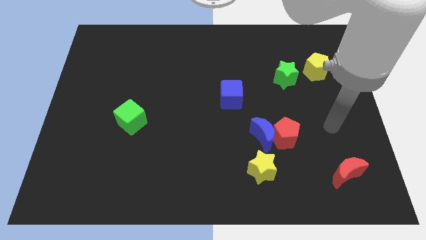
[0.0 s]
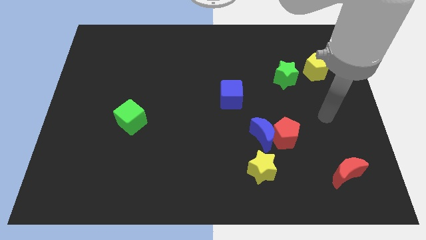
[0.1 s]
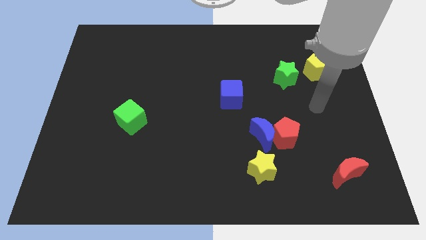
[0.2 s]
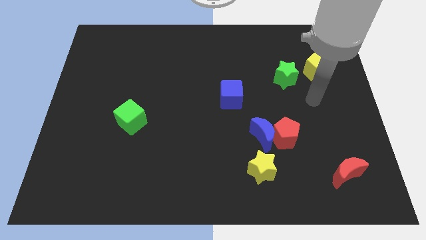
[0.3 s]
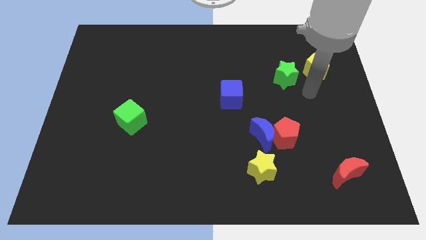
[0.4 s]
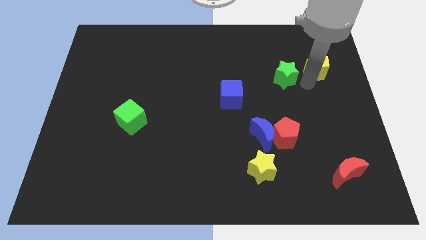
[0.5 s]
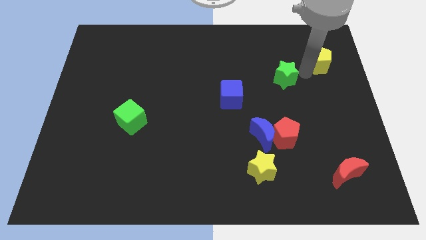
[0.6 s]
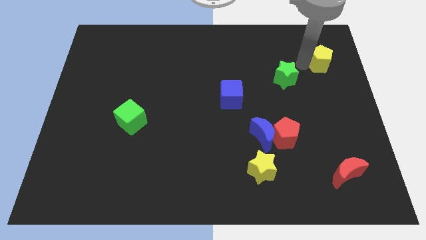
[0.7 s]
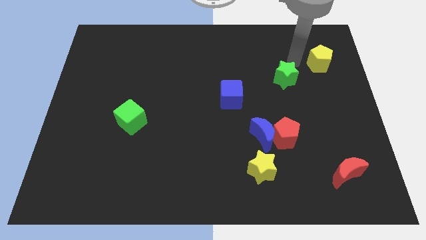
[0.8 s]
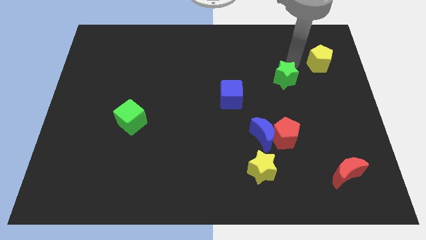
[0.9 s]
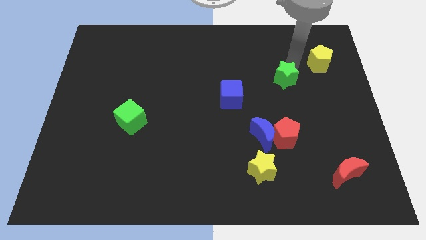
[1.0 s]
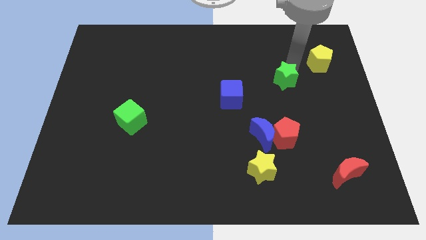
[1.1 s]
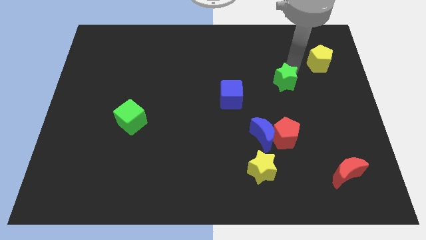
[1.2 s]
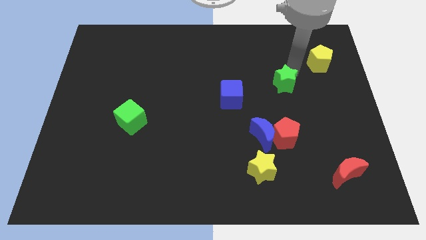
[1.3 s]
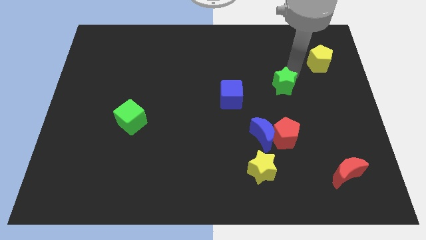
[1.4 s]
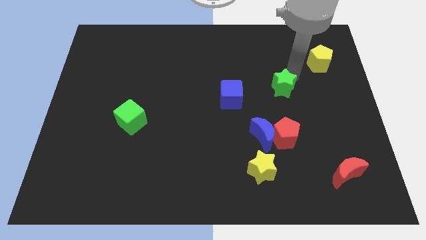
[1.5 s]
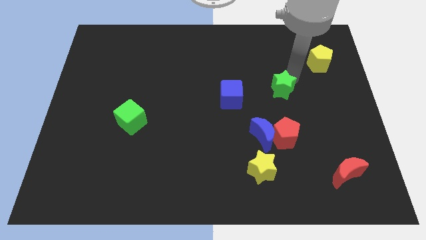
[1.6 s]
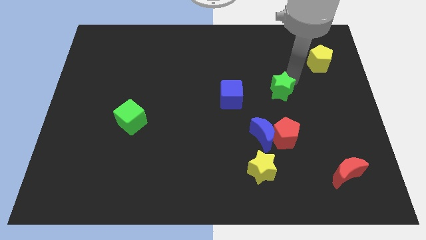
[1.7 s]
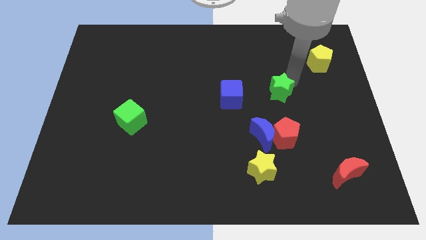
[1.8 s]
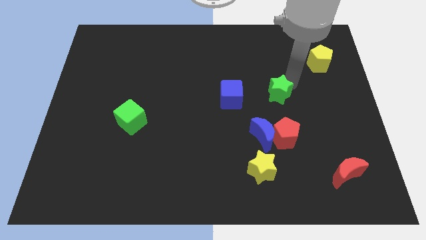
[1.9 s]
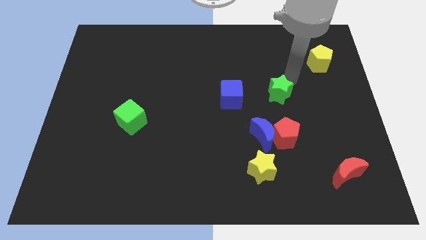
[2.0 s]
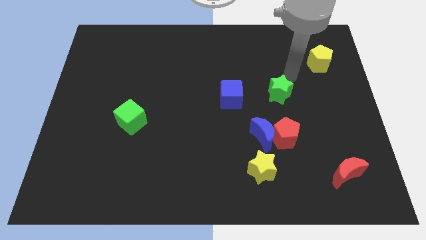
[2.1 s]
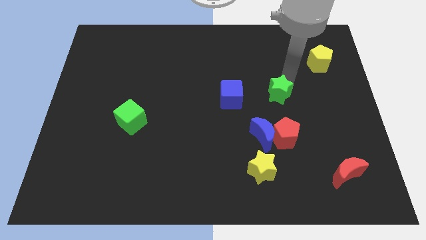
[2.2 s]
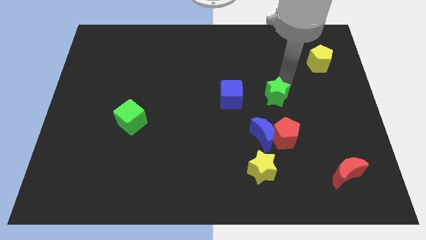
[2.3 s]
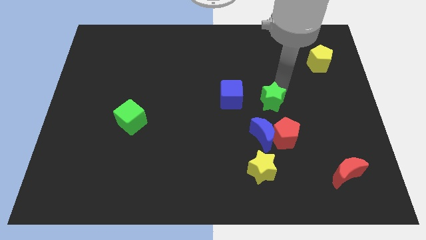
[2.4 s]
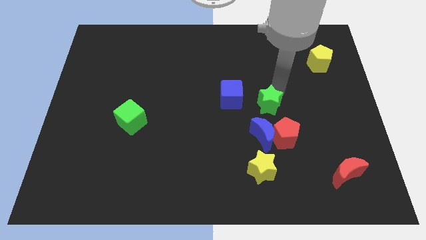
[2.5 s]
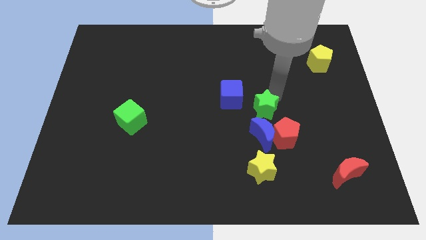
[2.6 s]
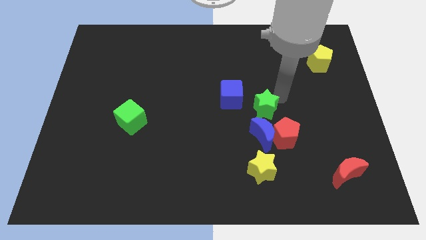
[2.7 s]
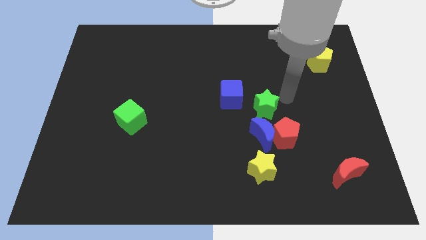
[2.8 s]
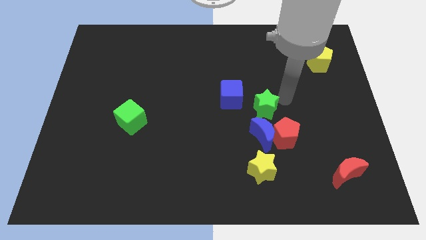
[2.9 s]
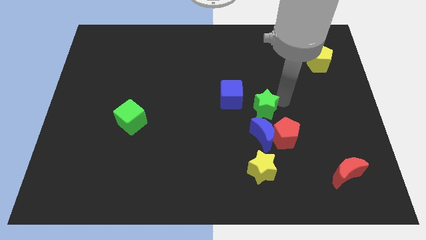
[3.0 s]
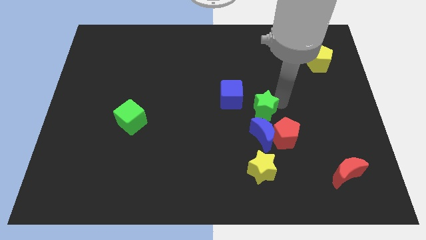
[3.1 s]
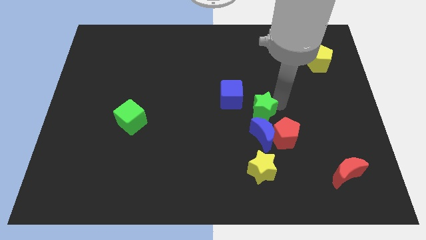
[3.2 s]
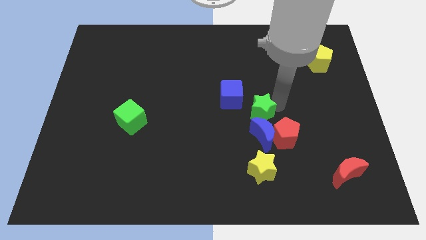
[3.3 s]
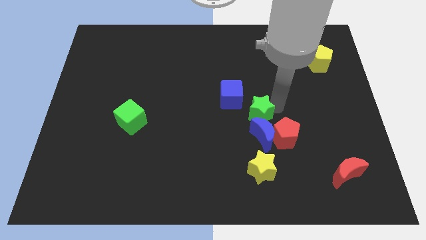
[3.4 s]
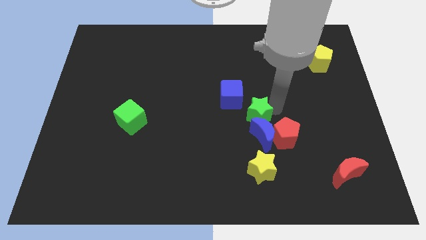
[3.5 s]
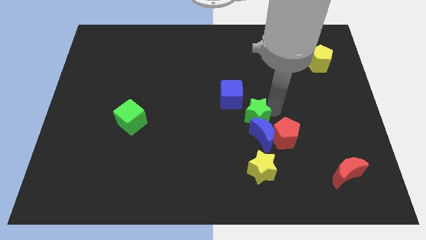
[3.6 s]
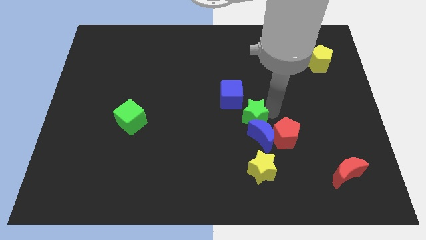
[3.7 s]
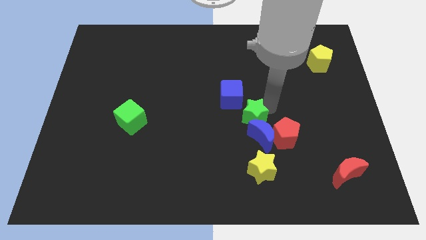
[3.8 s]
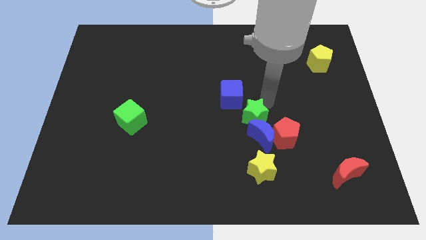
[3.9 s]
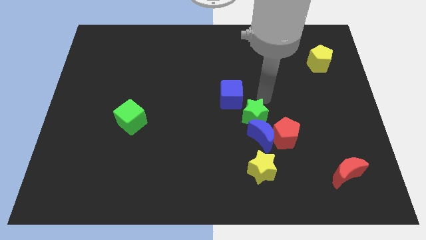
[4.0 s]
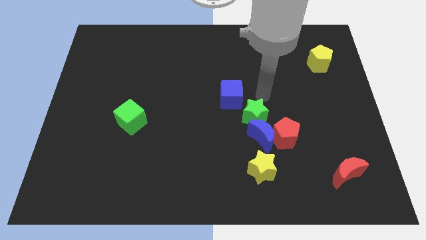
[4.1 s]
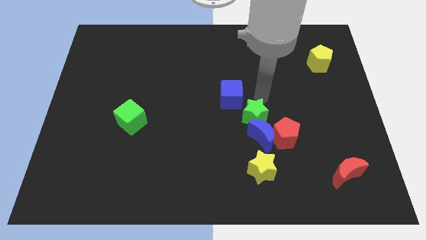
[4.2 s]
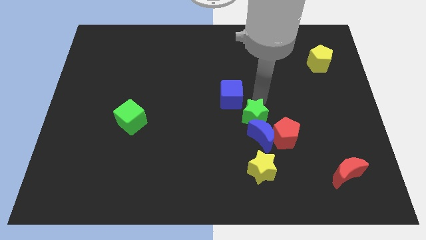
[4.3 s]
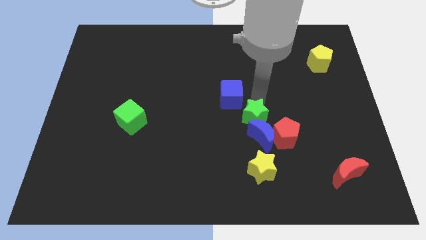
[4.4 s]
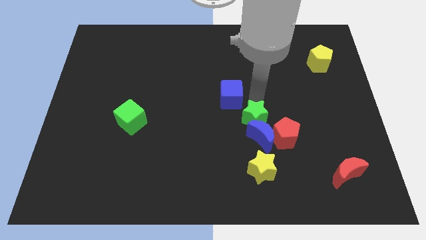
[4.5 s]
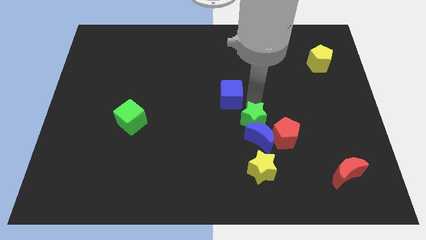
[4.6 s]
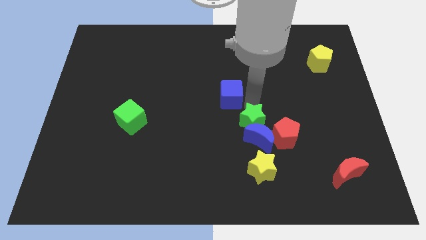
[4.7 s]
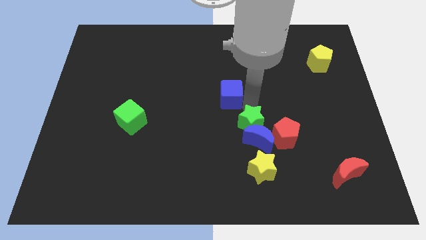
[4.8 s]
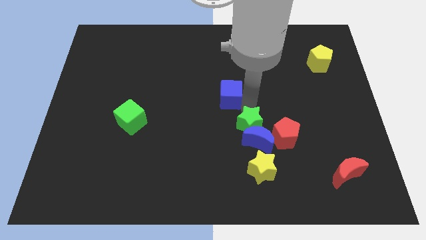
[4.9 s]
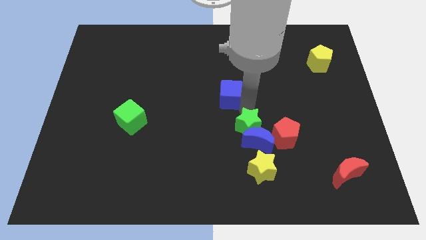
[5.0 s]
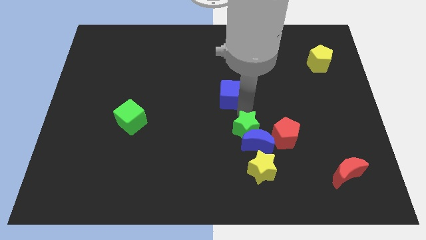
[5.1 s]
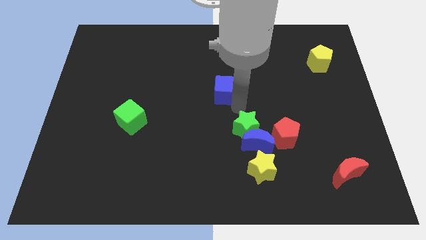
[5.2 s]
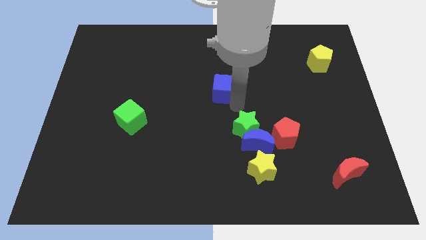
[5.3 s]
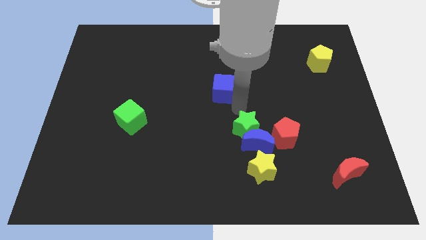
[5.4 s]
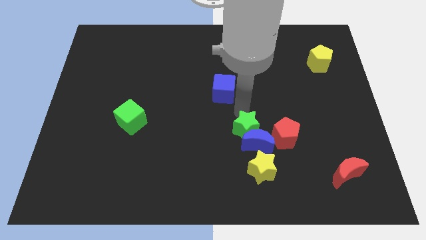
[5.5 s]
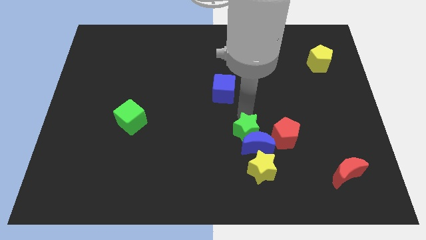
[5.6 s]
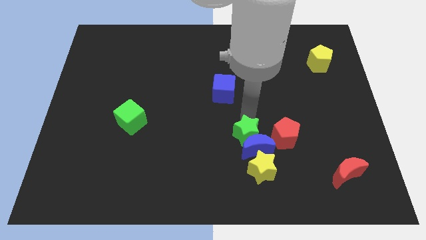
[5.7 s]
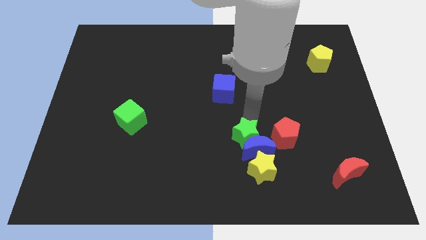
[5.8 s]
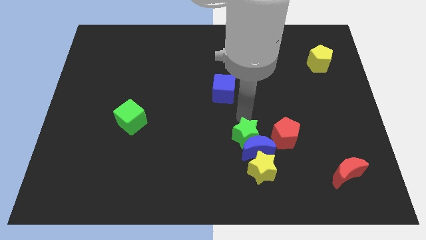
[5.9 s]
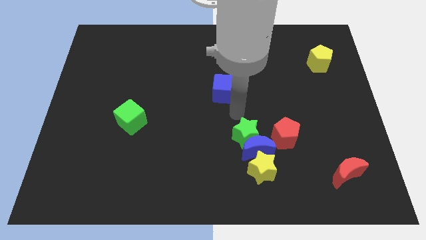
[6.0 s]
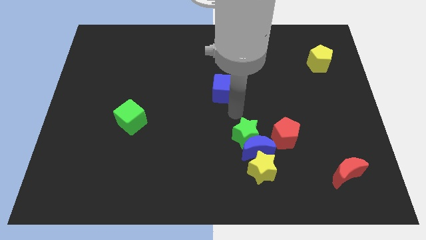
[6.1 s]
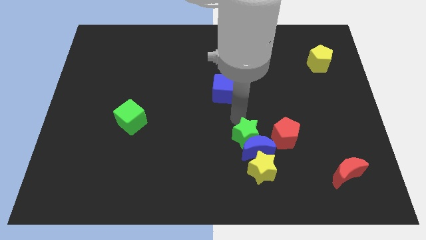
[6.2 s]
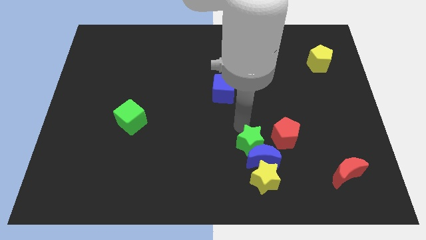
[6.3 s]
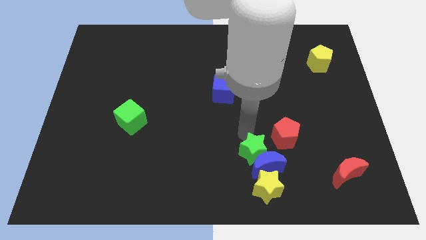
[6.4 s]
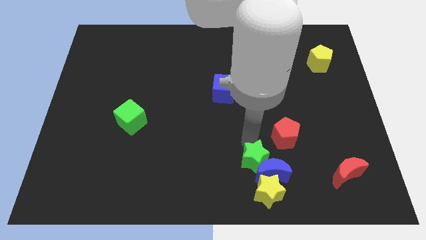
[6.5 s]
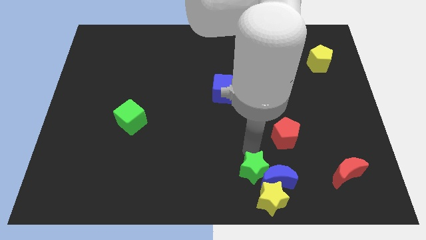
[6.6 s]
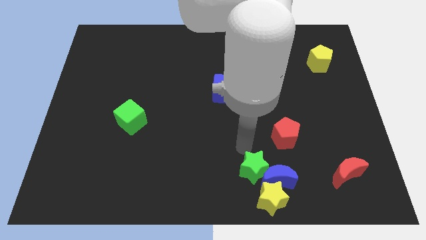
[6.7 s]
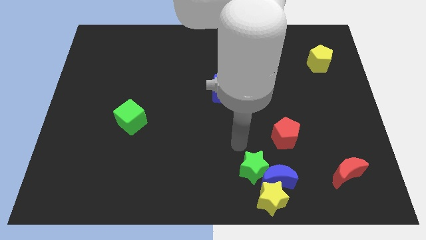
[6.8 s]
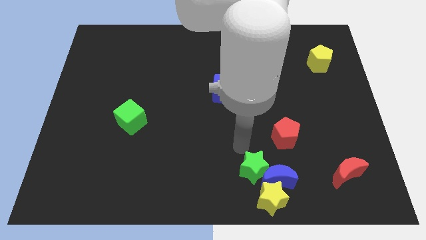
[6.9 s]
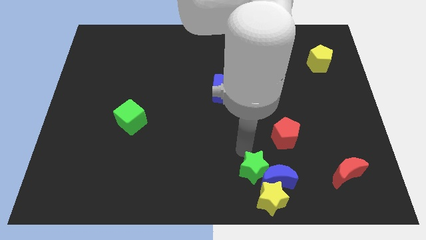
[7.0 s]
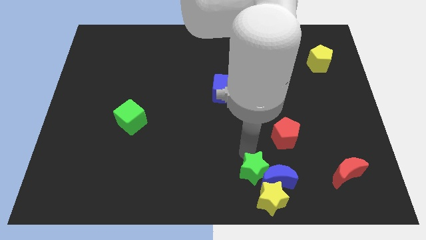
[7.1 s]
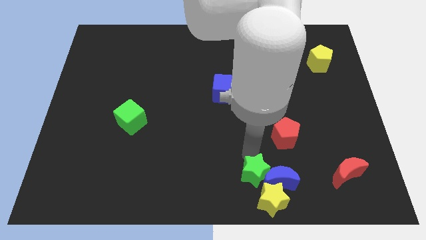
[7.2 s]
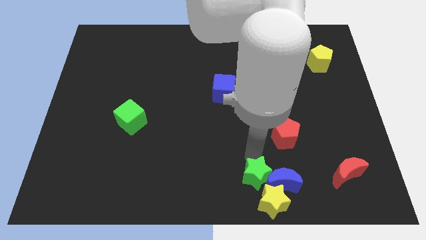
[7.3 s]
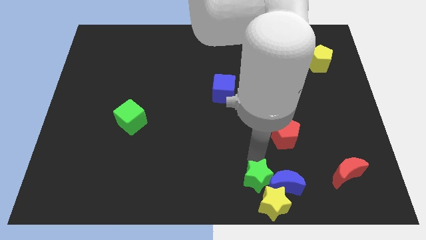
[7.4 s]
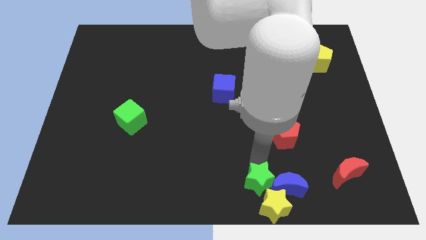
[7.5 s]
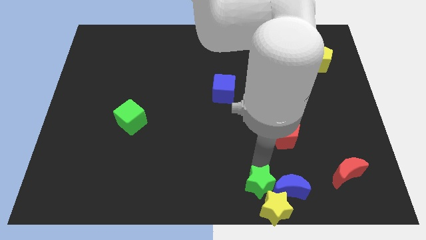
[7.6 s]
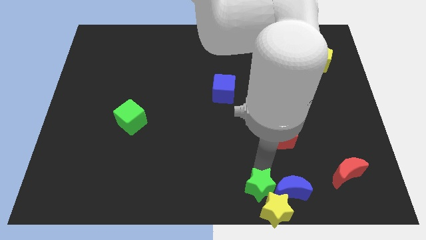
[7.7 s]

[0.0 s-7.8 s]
push the green star close to the yellow star
